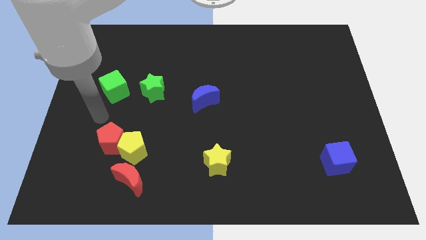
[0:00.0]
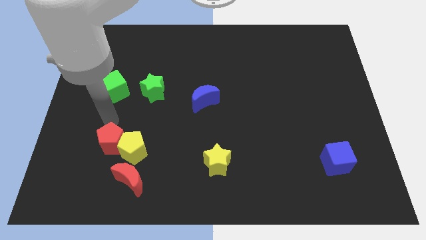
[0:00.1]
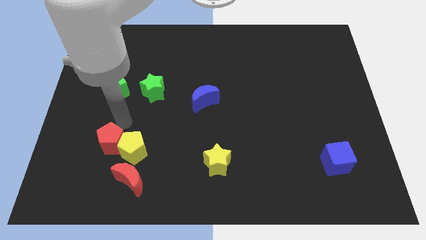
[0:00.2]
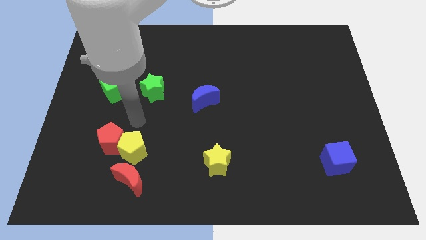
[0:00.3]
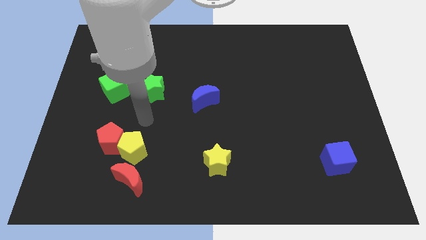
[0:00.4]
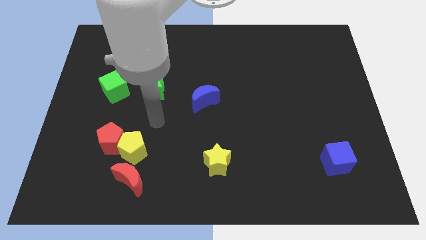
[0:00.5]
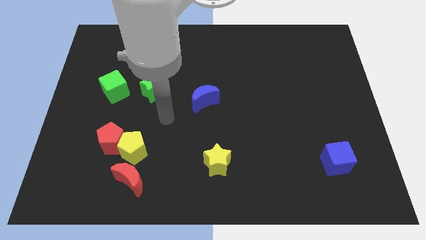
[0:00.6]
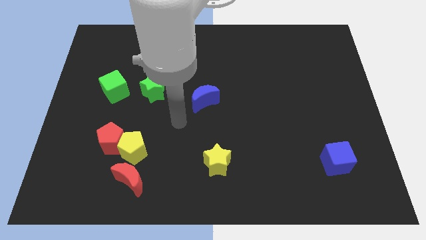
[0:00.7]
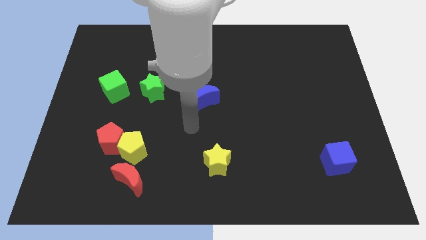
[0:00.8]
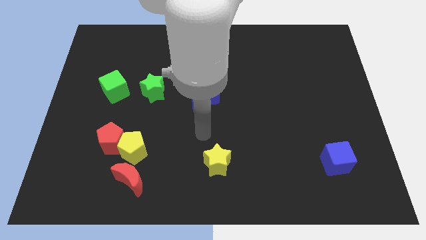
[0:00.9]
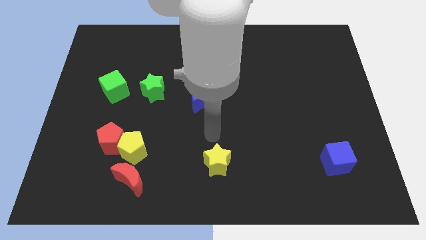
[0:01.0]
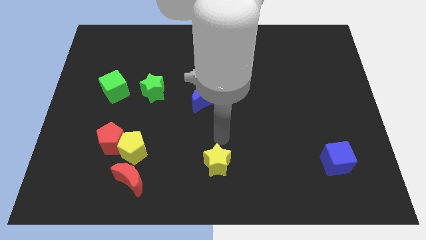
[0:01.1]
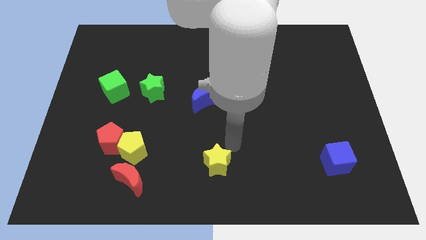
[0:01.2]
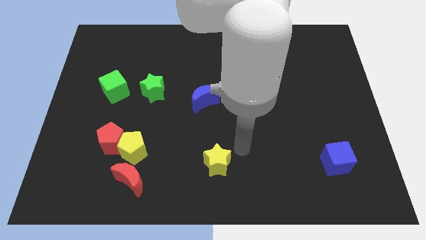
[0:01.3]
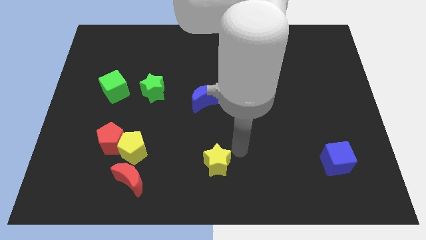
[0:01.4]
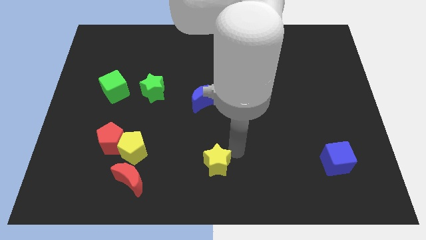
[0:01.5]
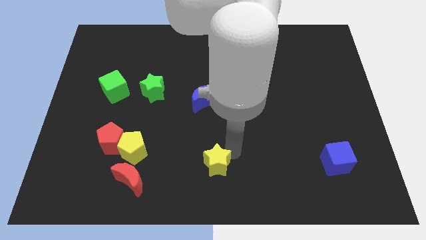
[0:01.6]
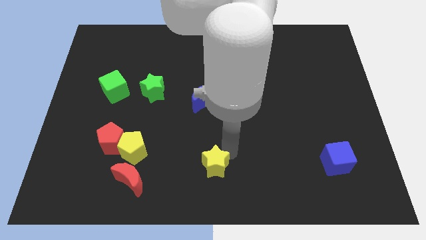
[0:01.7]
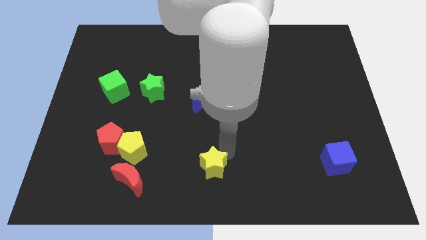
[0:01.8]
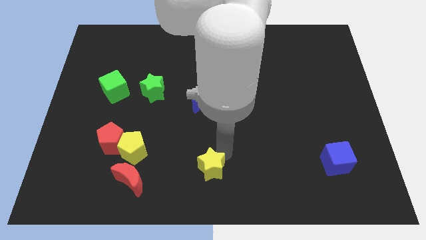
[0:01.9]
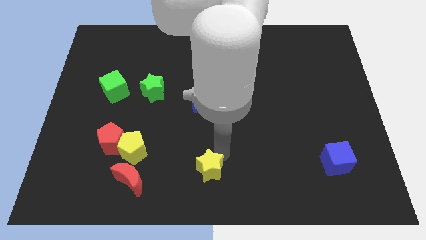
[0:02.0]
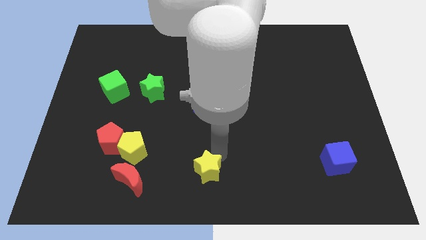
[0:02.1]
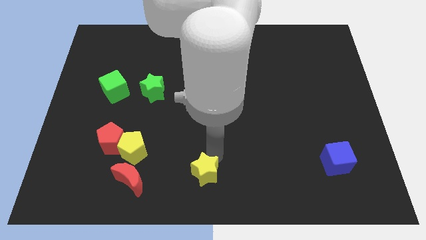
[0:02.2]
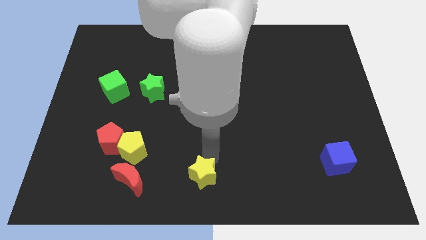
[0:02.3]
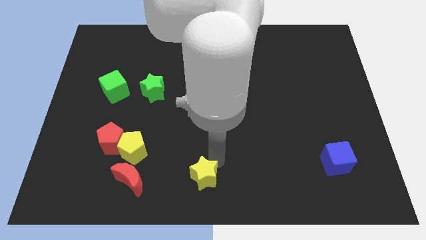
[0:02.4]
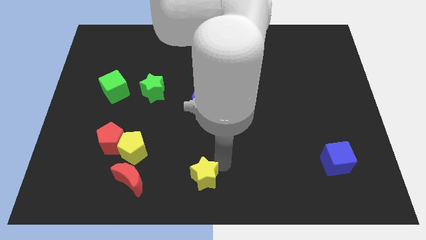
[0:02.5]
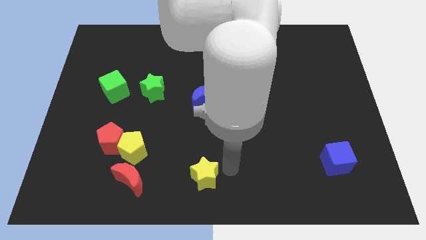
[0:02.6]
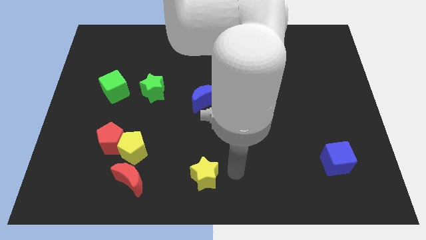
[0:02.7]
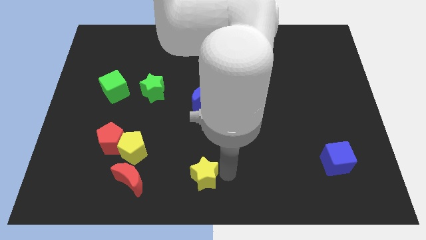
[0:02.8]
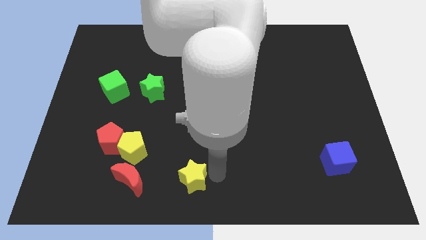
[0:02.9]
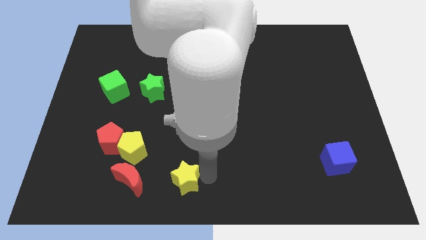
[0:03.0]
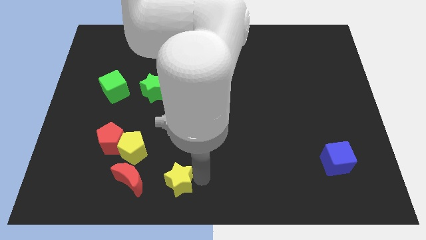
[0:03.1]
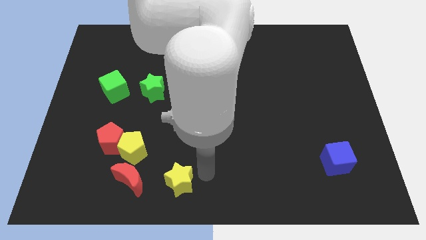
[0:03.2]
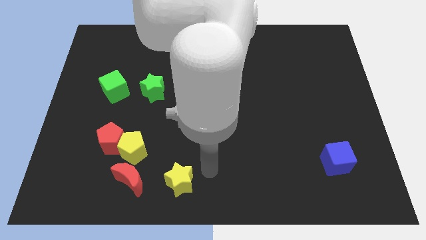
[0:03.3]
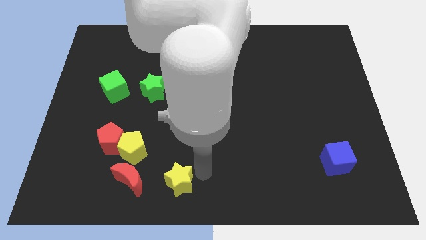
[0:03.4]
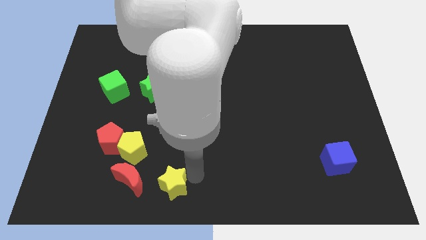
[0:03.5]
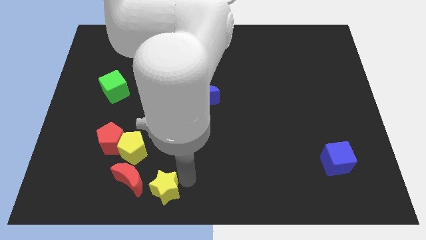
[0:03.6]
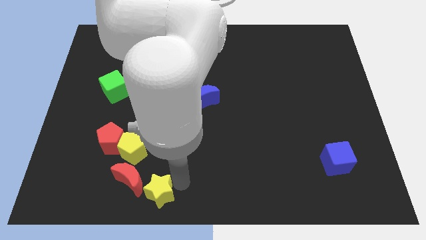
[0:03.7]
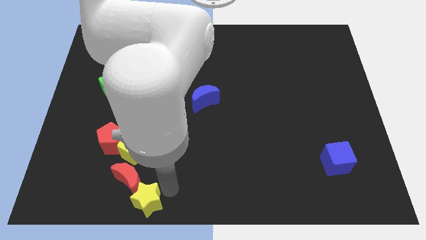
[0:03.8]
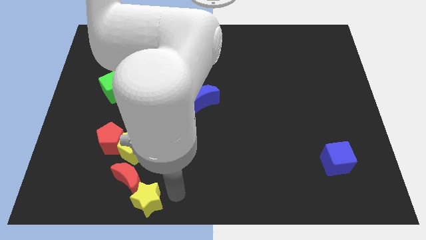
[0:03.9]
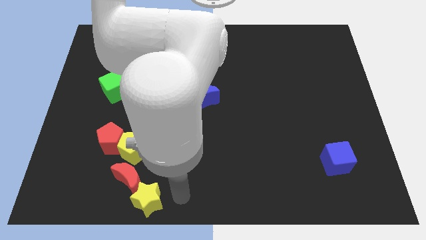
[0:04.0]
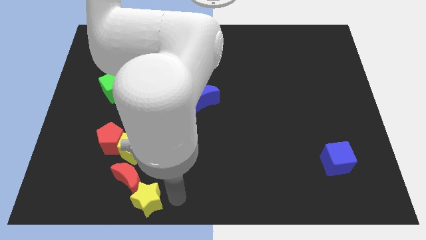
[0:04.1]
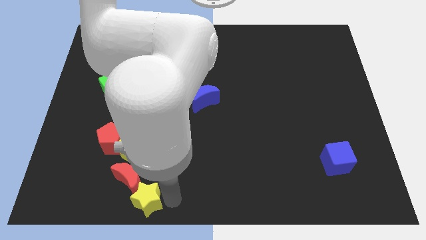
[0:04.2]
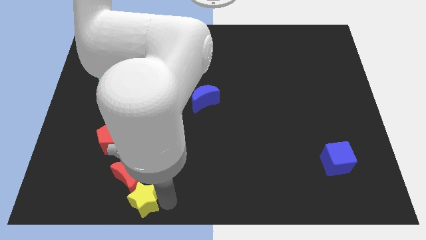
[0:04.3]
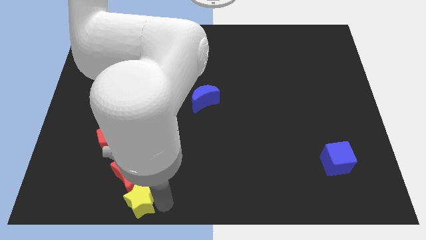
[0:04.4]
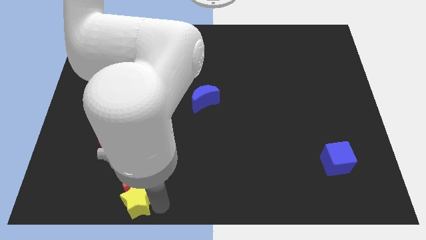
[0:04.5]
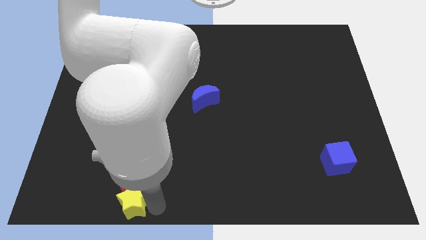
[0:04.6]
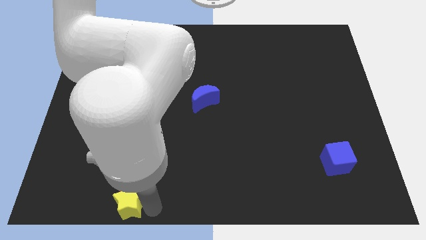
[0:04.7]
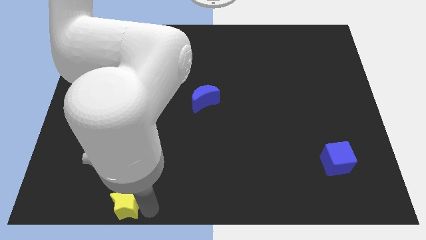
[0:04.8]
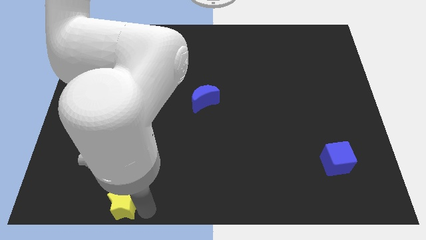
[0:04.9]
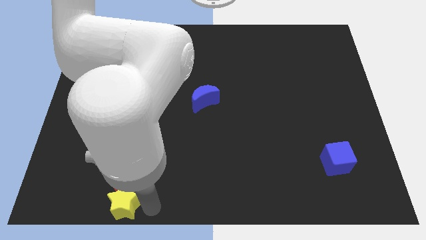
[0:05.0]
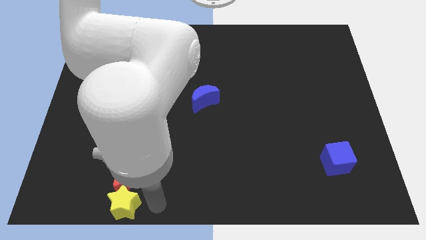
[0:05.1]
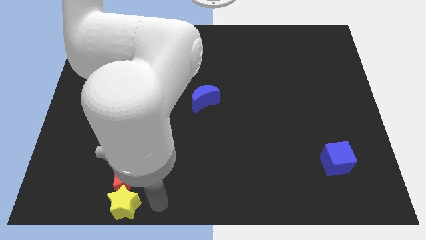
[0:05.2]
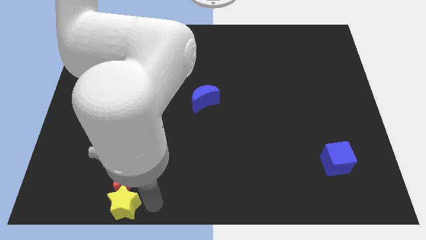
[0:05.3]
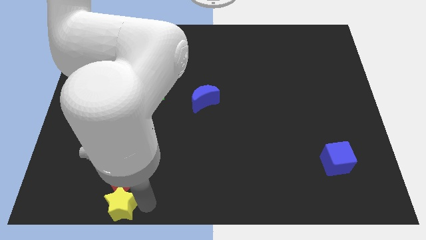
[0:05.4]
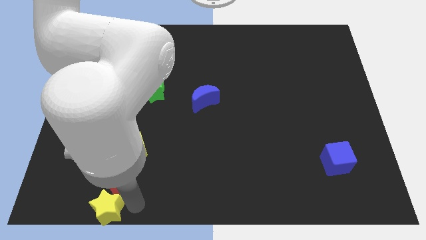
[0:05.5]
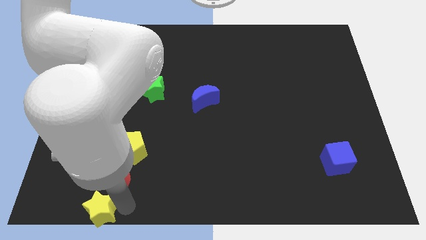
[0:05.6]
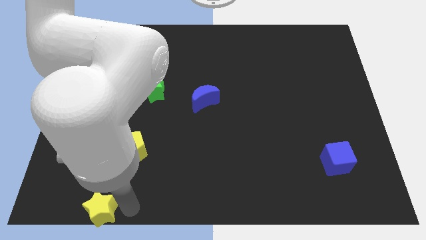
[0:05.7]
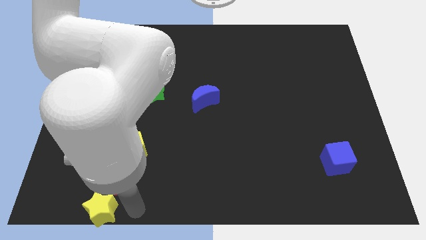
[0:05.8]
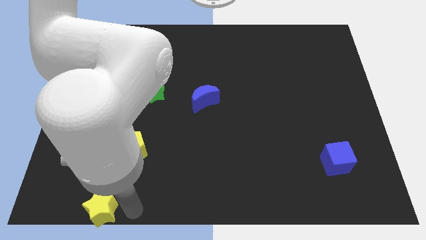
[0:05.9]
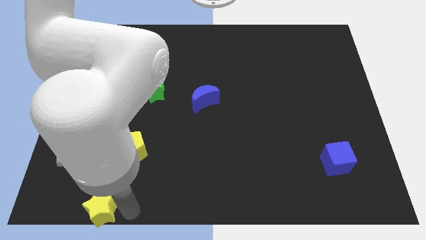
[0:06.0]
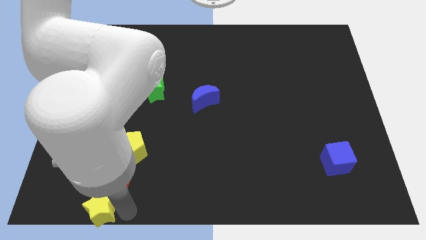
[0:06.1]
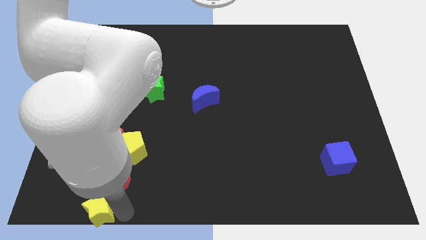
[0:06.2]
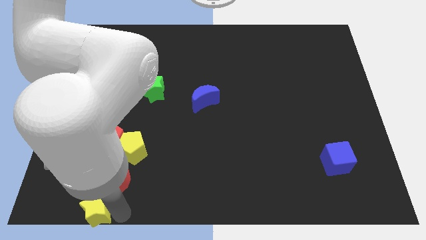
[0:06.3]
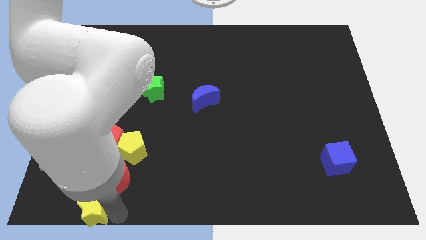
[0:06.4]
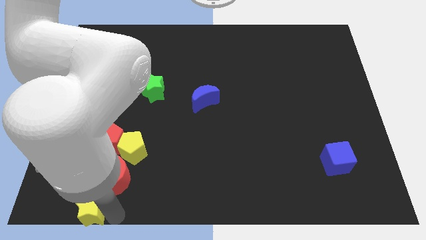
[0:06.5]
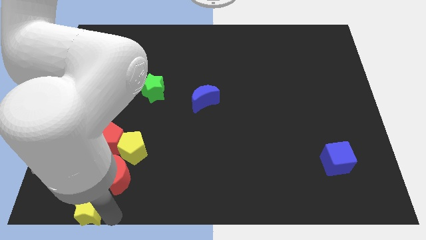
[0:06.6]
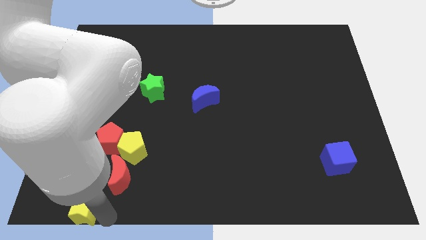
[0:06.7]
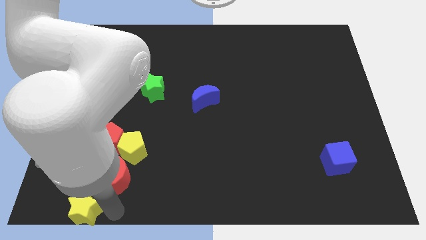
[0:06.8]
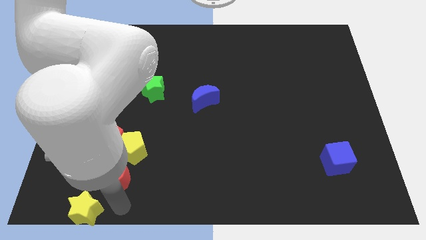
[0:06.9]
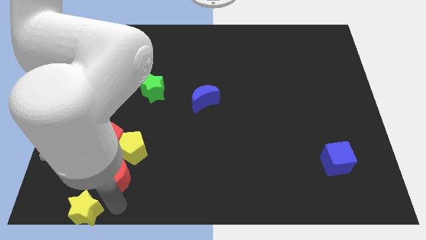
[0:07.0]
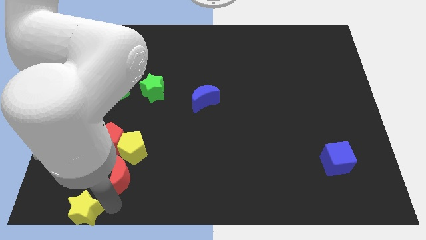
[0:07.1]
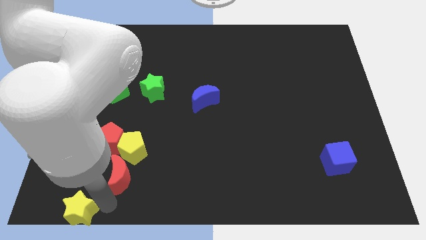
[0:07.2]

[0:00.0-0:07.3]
slide the yellow star to the bottom left
